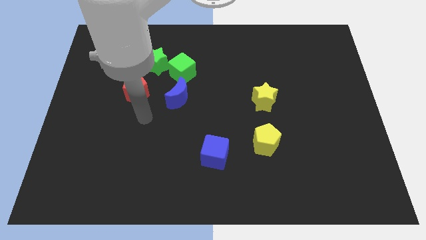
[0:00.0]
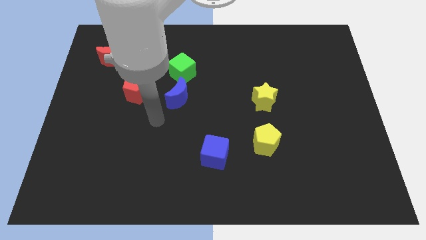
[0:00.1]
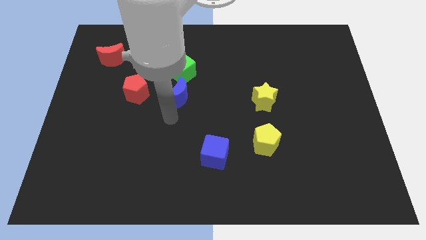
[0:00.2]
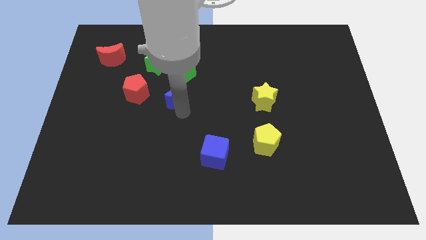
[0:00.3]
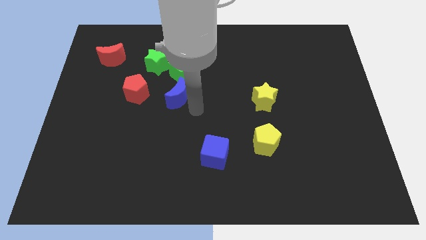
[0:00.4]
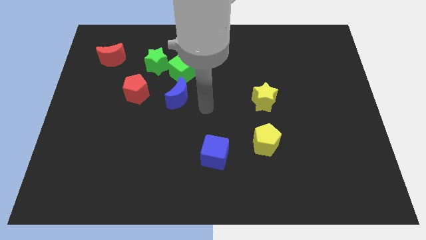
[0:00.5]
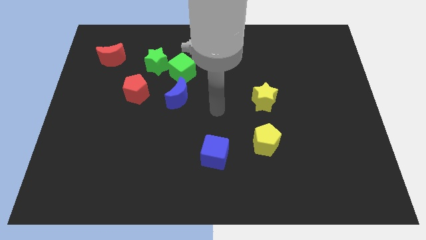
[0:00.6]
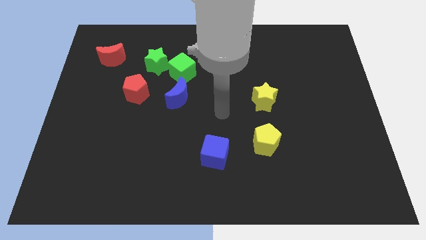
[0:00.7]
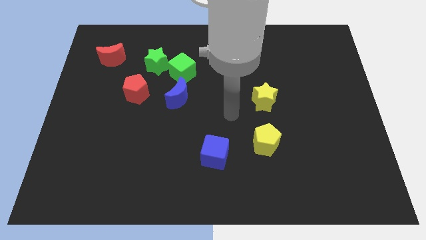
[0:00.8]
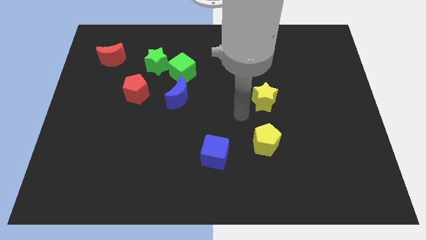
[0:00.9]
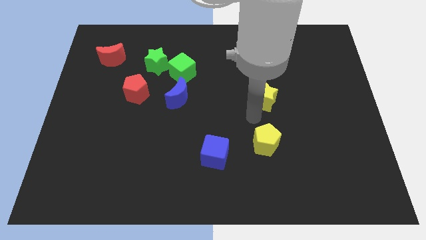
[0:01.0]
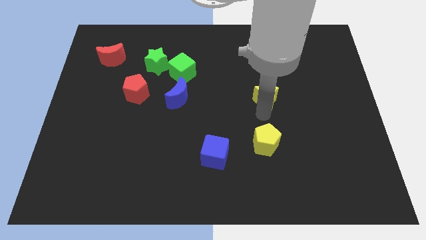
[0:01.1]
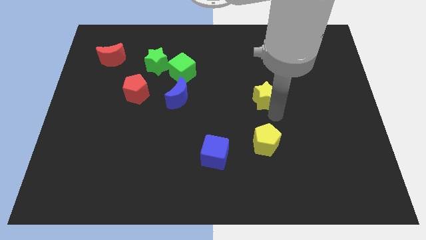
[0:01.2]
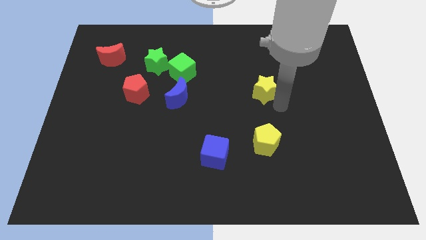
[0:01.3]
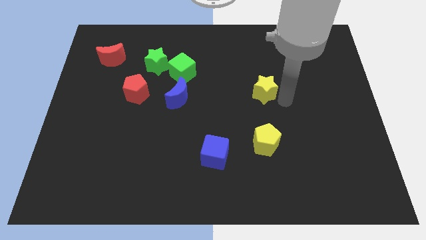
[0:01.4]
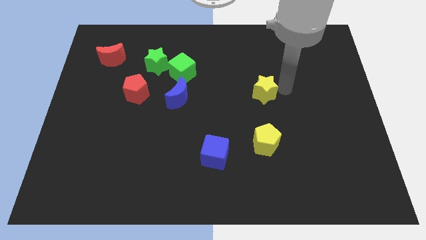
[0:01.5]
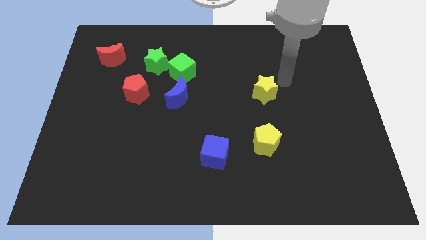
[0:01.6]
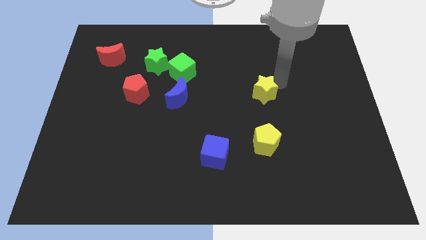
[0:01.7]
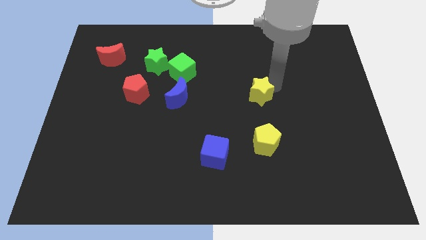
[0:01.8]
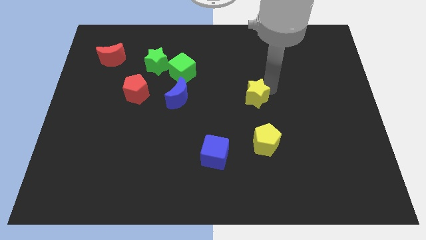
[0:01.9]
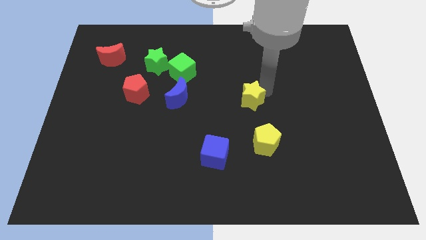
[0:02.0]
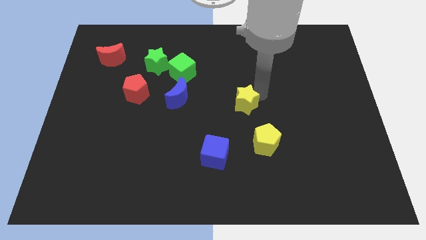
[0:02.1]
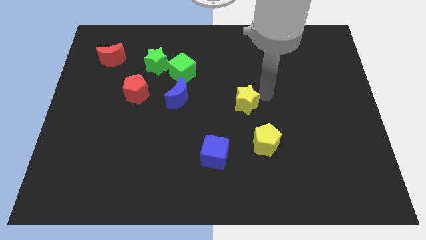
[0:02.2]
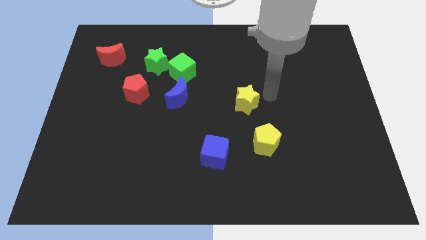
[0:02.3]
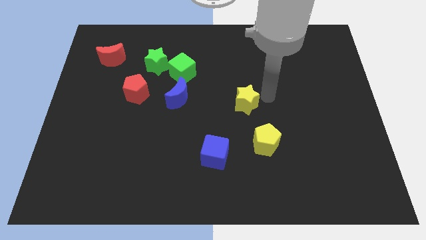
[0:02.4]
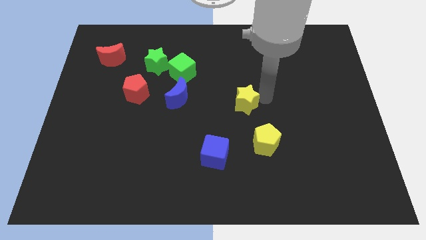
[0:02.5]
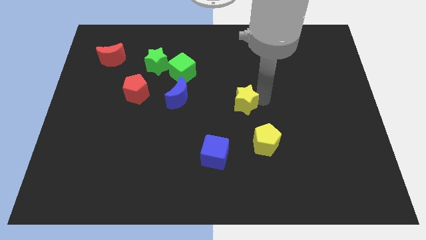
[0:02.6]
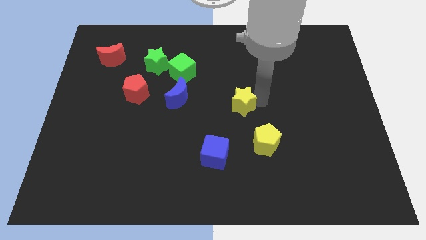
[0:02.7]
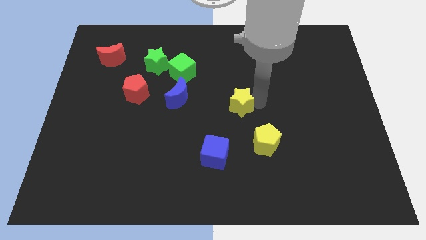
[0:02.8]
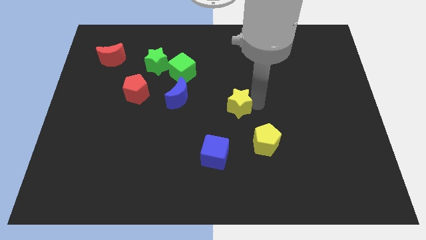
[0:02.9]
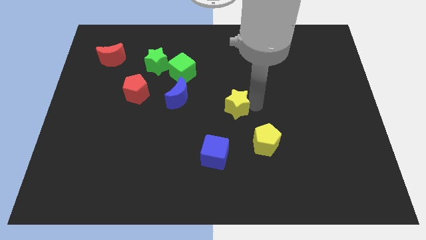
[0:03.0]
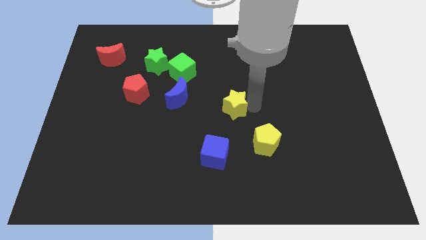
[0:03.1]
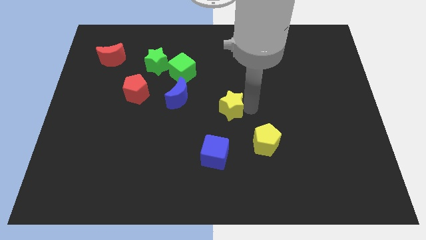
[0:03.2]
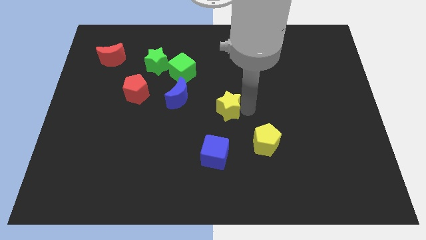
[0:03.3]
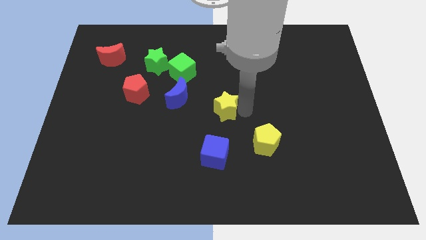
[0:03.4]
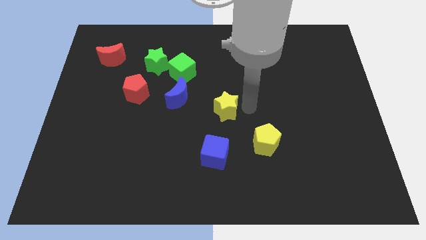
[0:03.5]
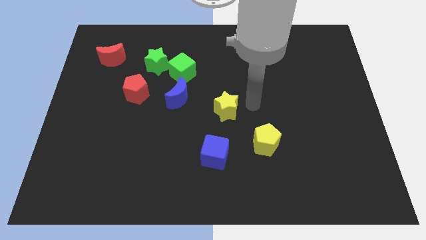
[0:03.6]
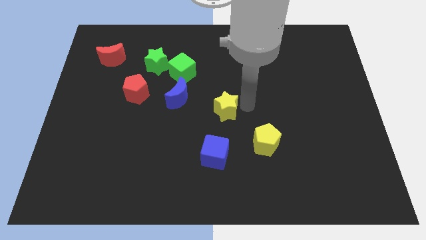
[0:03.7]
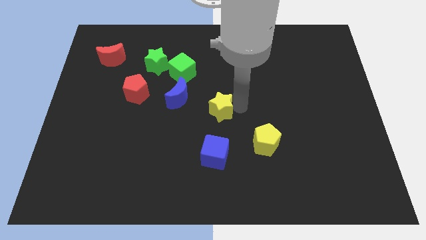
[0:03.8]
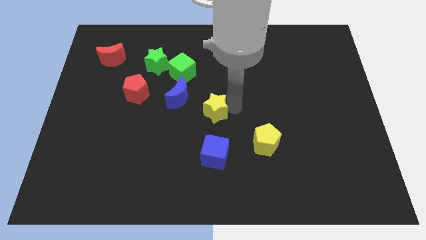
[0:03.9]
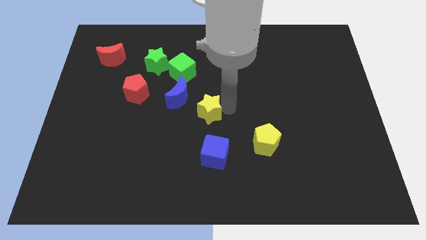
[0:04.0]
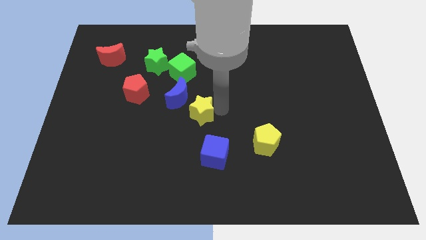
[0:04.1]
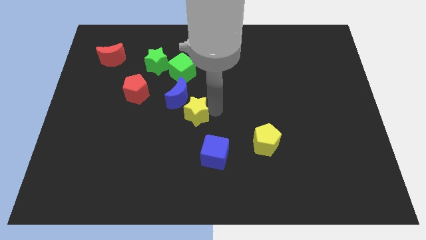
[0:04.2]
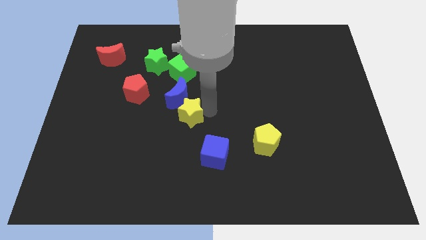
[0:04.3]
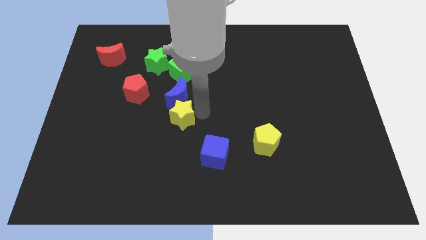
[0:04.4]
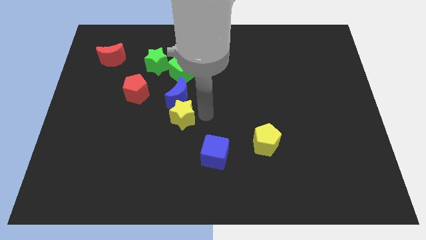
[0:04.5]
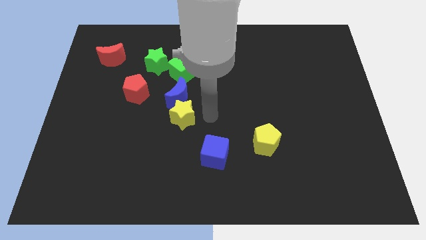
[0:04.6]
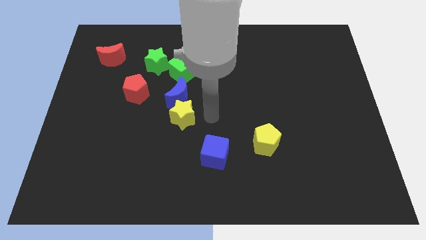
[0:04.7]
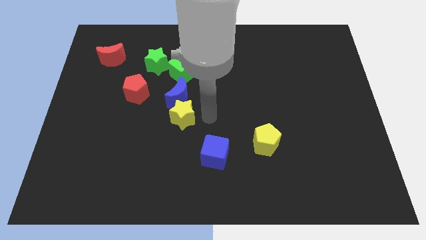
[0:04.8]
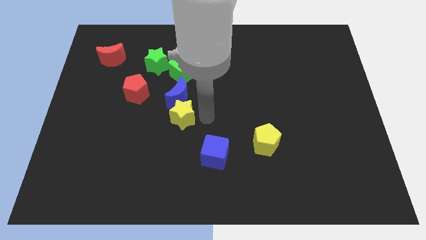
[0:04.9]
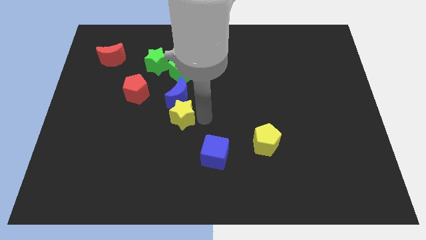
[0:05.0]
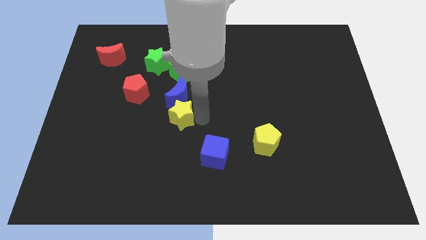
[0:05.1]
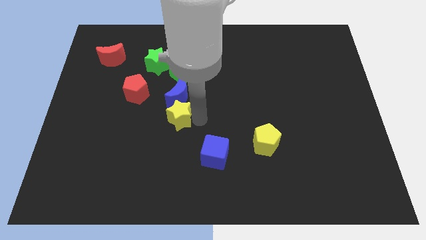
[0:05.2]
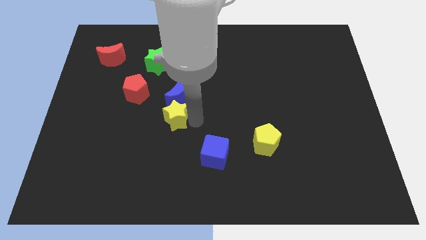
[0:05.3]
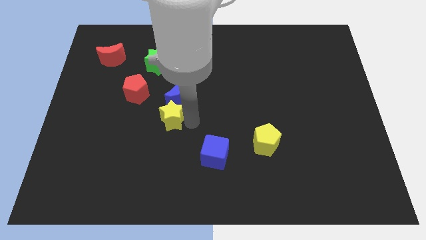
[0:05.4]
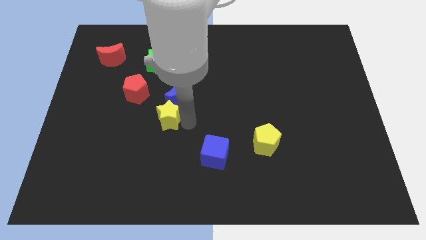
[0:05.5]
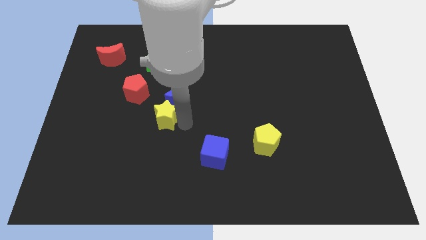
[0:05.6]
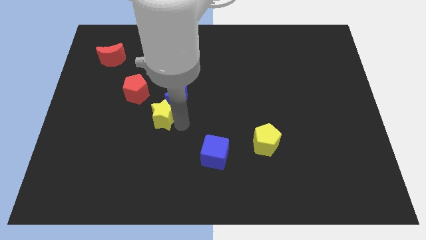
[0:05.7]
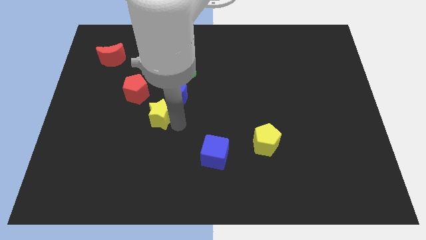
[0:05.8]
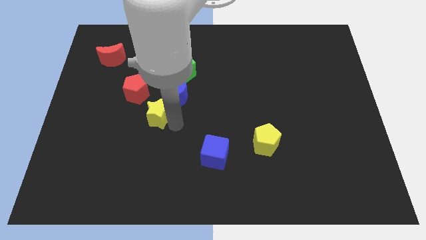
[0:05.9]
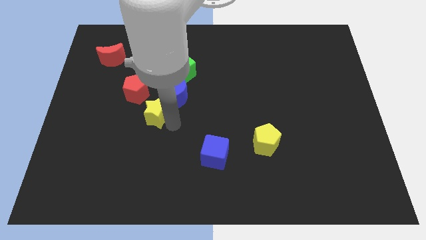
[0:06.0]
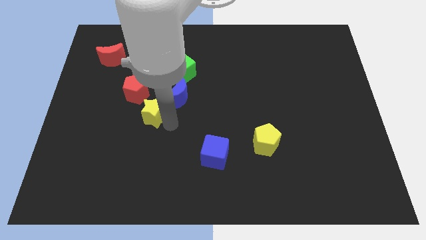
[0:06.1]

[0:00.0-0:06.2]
put the yellow star to the left side of the blue moon

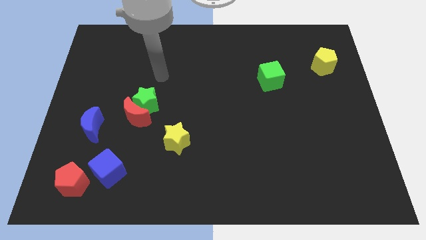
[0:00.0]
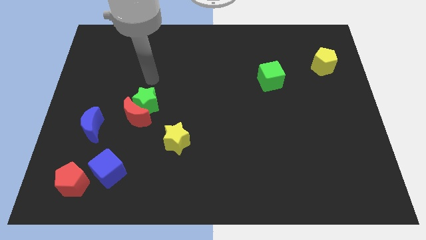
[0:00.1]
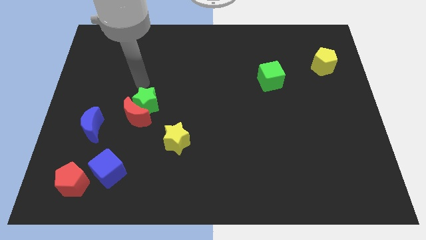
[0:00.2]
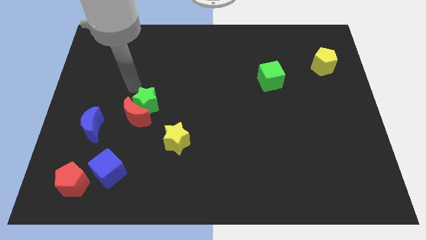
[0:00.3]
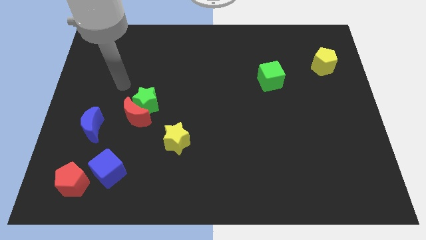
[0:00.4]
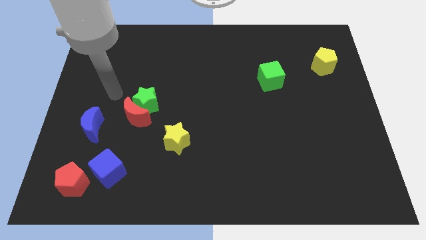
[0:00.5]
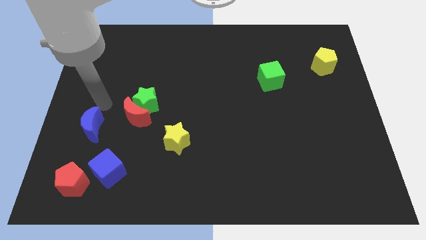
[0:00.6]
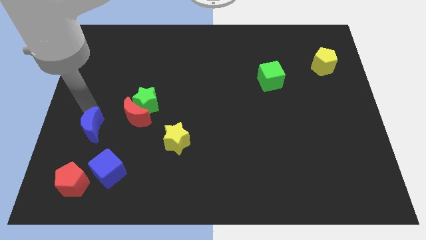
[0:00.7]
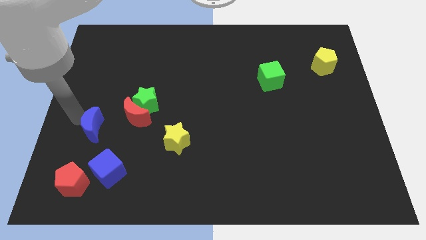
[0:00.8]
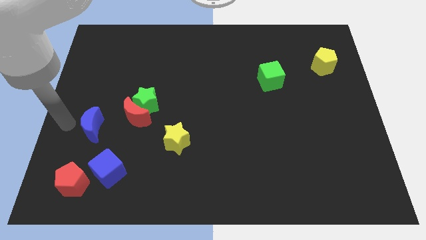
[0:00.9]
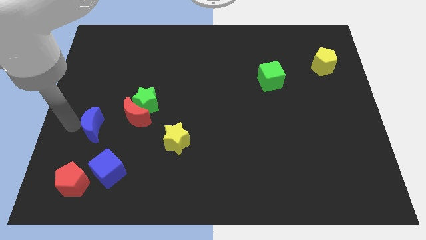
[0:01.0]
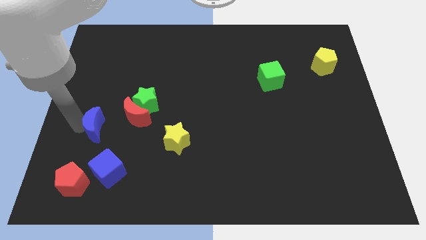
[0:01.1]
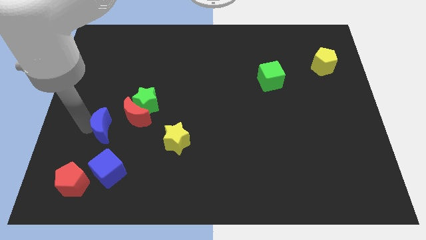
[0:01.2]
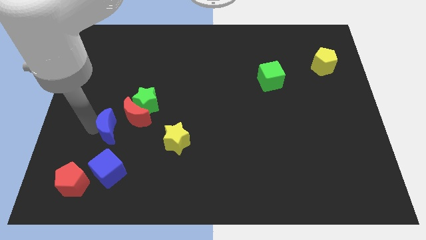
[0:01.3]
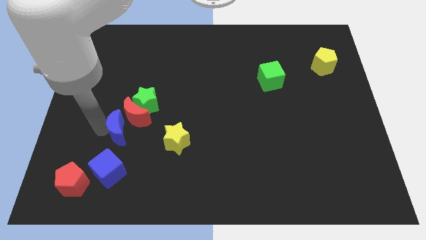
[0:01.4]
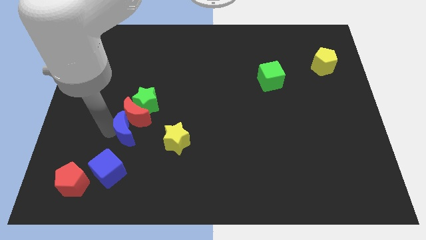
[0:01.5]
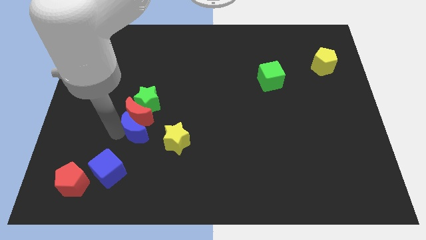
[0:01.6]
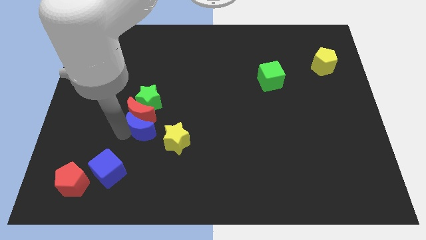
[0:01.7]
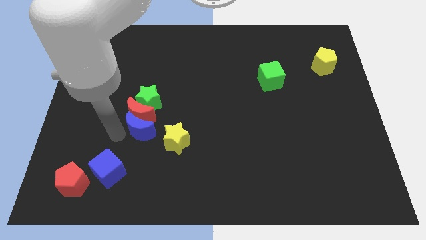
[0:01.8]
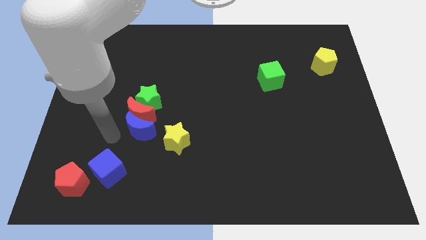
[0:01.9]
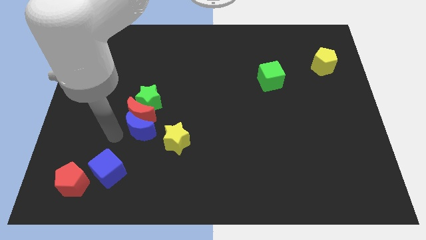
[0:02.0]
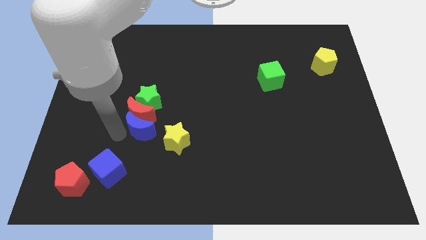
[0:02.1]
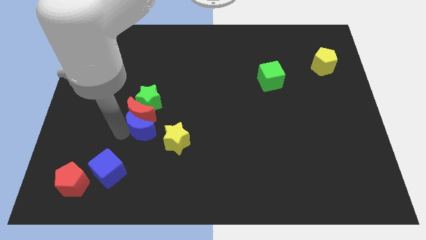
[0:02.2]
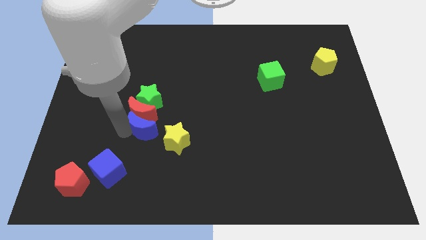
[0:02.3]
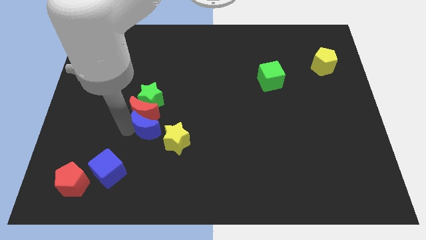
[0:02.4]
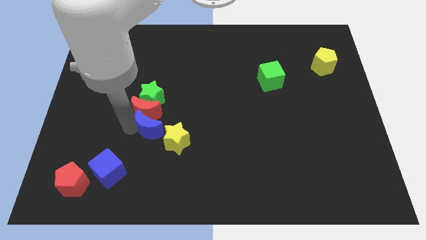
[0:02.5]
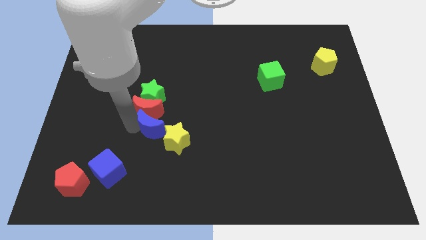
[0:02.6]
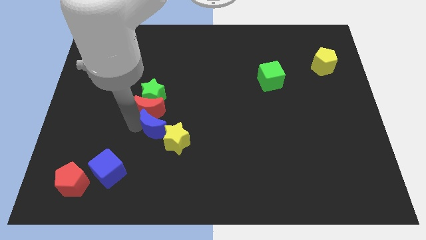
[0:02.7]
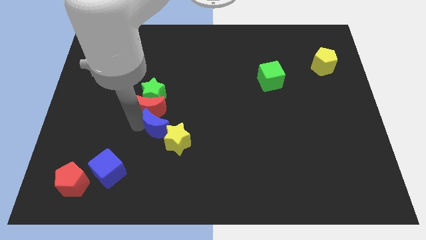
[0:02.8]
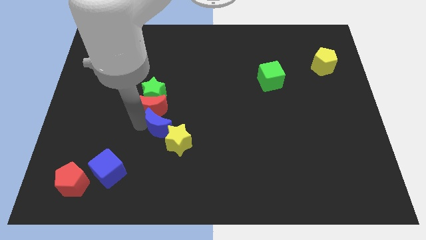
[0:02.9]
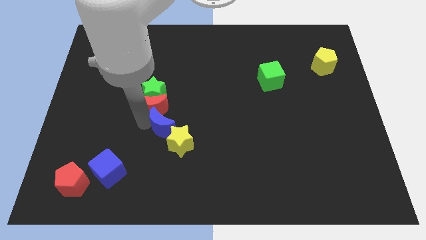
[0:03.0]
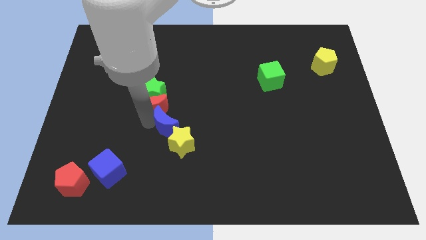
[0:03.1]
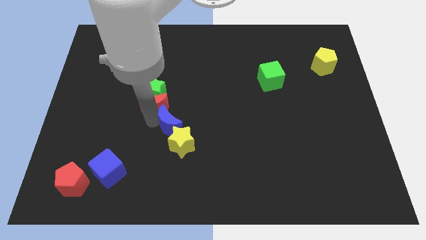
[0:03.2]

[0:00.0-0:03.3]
put the blue moon to the right side of the red moon
